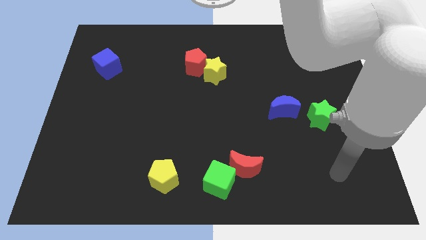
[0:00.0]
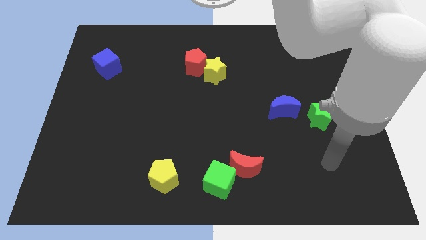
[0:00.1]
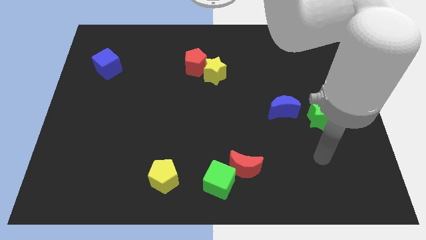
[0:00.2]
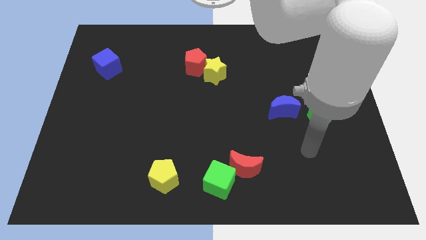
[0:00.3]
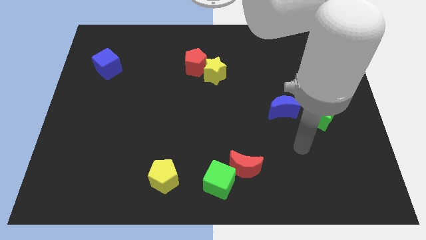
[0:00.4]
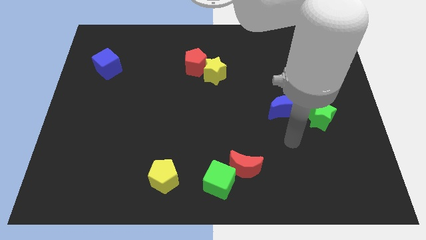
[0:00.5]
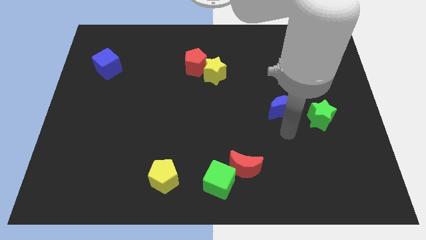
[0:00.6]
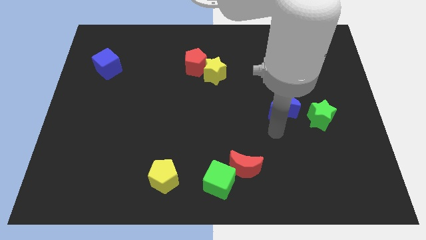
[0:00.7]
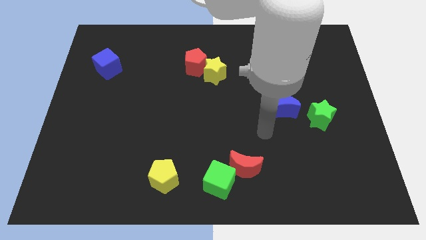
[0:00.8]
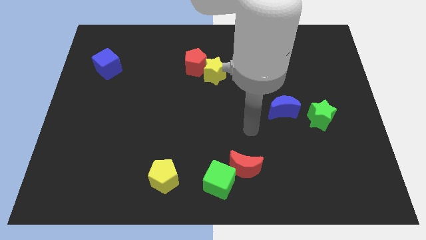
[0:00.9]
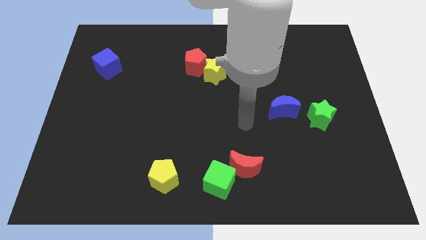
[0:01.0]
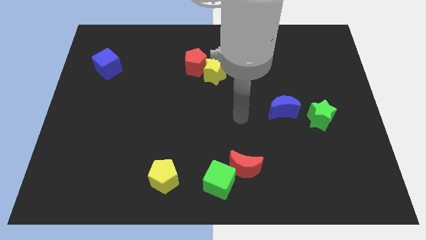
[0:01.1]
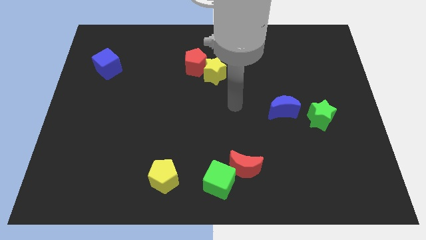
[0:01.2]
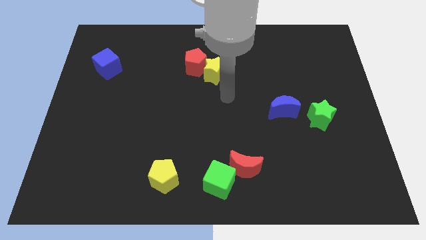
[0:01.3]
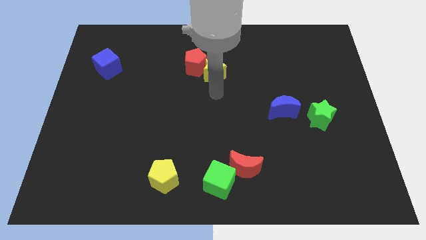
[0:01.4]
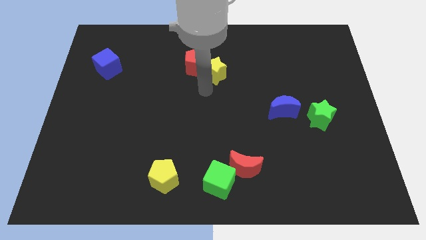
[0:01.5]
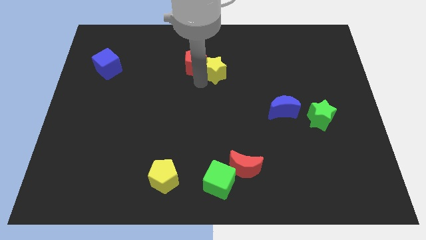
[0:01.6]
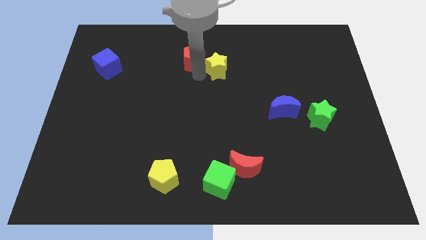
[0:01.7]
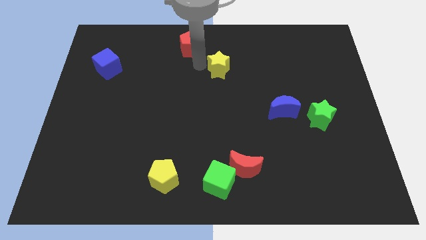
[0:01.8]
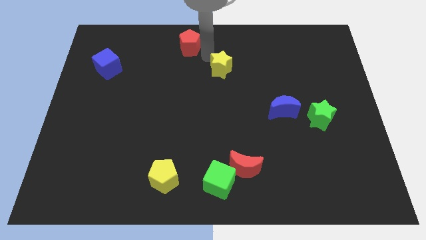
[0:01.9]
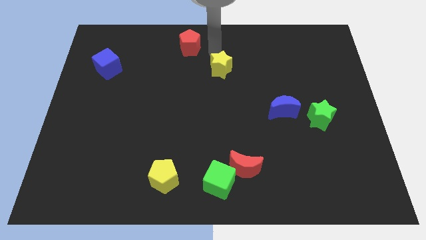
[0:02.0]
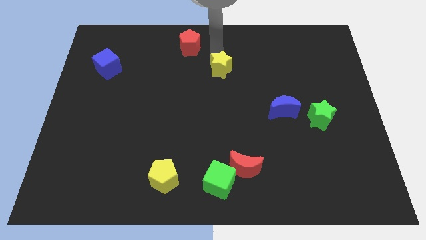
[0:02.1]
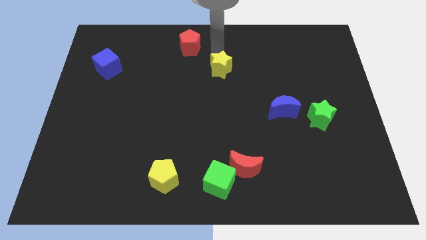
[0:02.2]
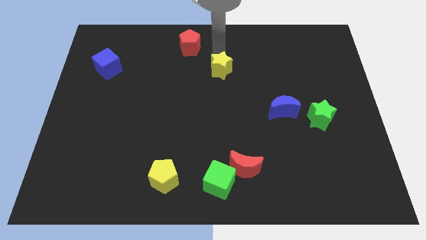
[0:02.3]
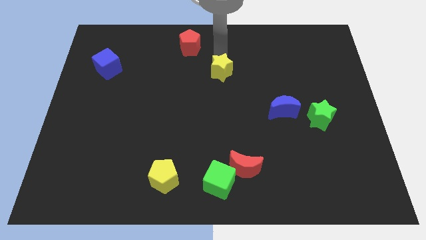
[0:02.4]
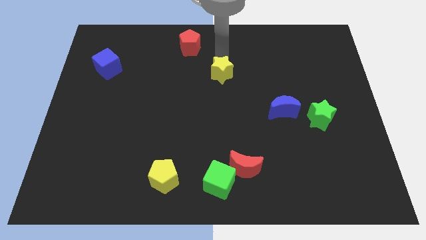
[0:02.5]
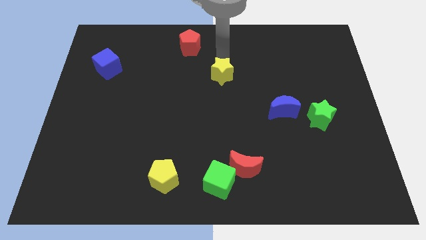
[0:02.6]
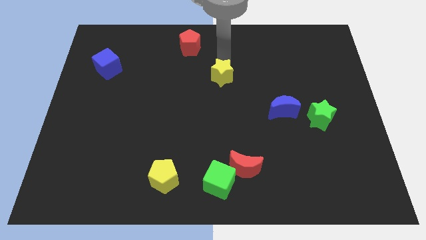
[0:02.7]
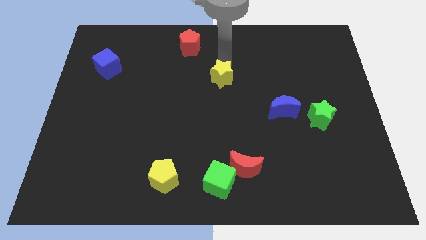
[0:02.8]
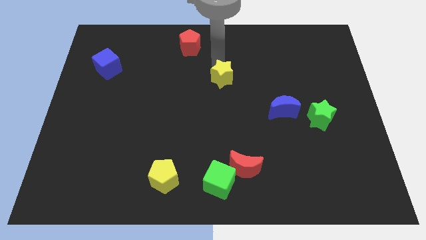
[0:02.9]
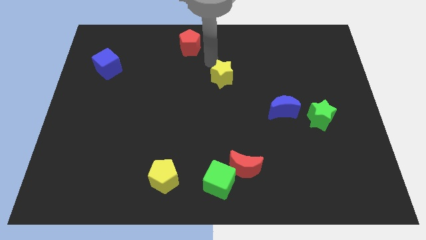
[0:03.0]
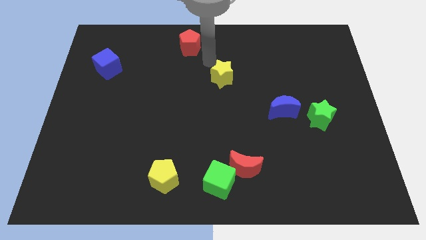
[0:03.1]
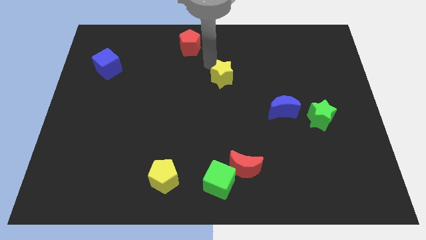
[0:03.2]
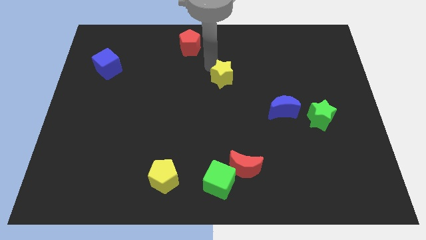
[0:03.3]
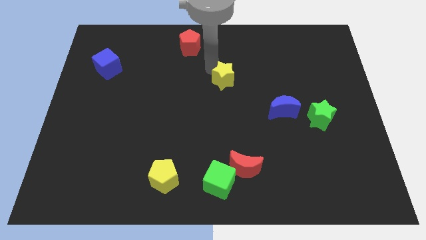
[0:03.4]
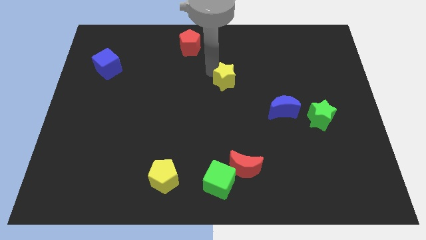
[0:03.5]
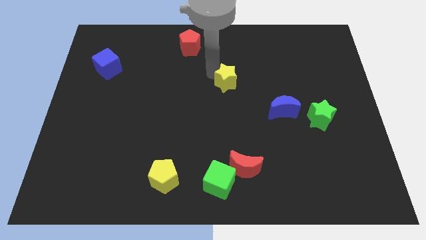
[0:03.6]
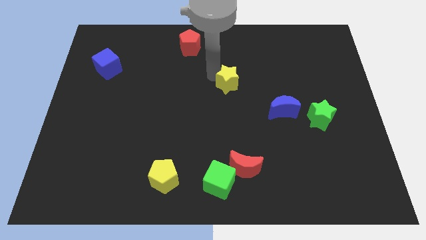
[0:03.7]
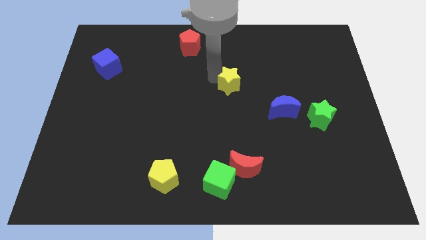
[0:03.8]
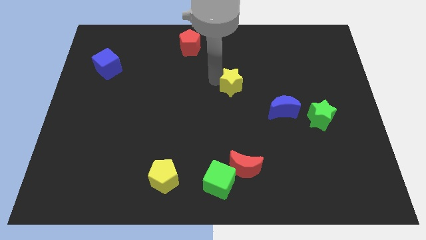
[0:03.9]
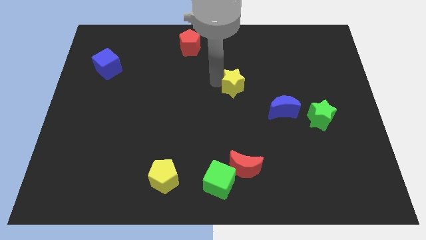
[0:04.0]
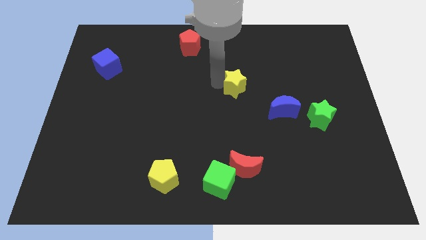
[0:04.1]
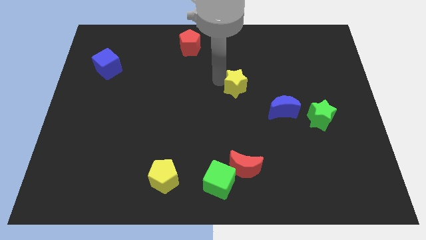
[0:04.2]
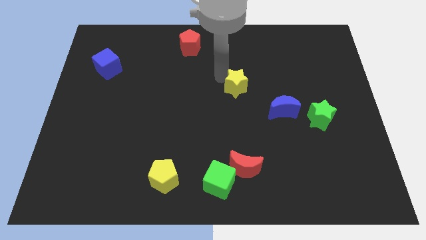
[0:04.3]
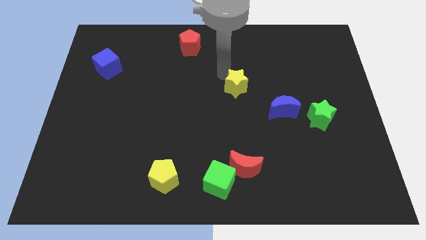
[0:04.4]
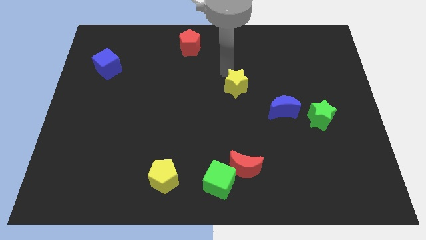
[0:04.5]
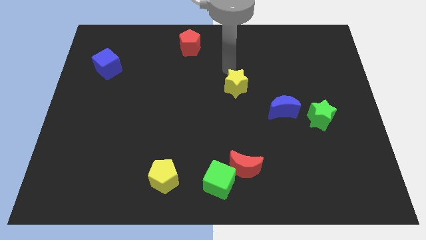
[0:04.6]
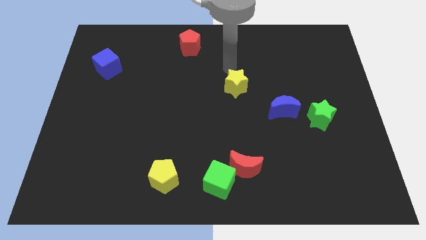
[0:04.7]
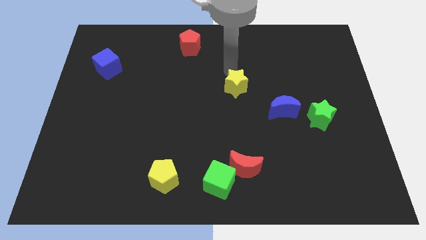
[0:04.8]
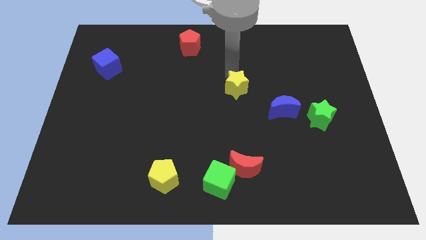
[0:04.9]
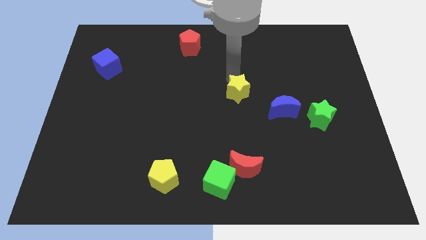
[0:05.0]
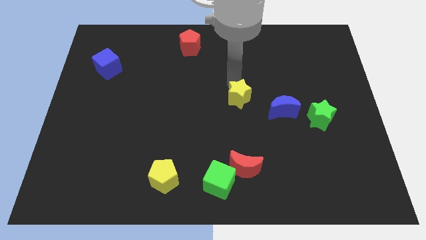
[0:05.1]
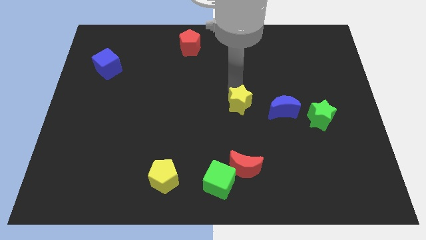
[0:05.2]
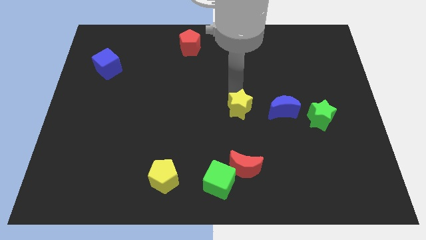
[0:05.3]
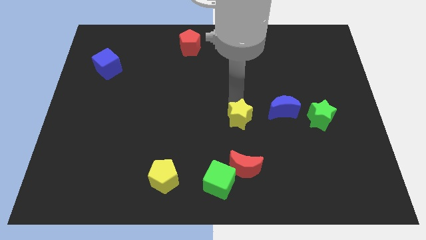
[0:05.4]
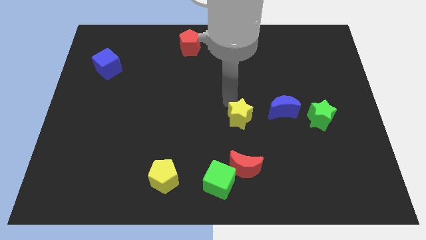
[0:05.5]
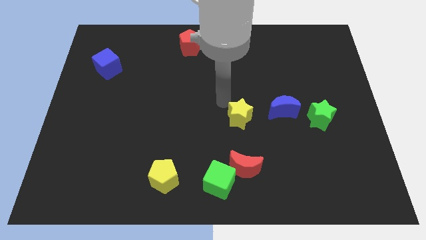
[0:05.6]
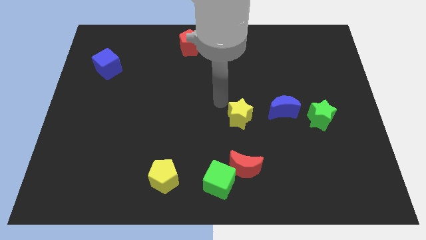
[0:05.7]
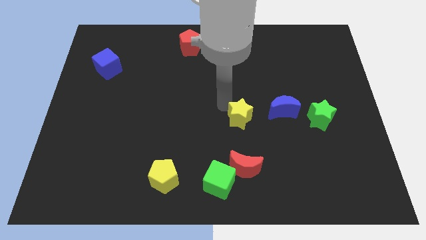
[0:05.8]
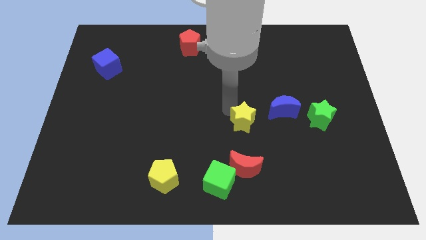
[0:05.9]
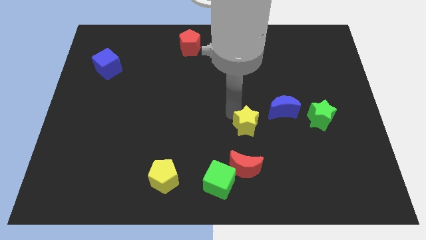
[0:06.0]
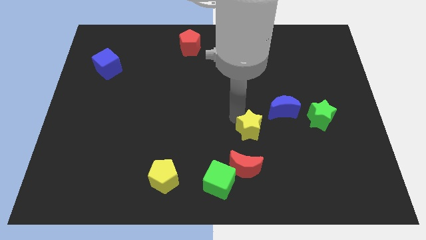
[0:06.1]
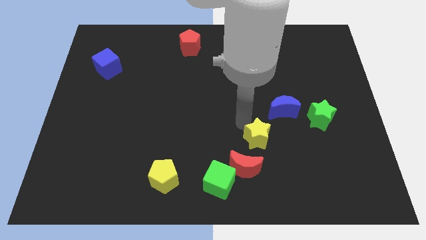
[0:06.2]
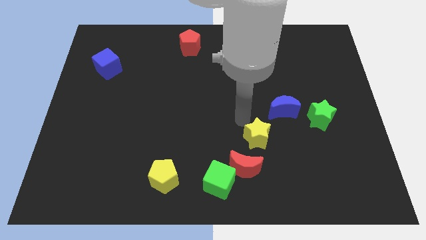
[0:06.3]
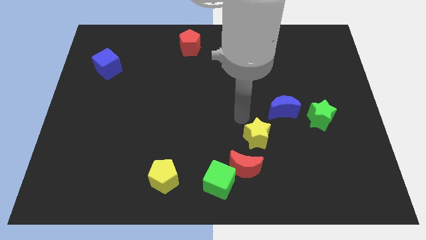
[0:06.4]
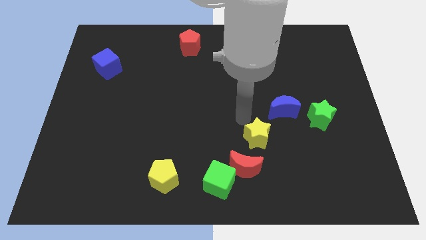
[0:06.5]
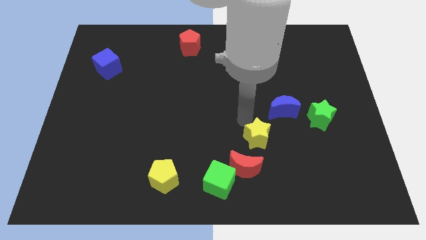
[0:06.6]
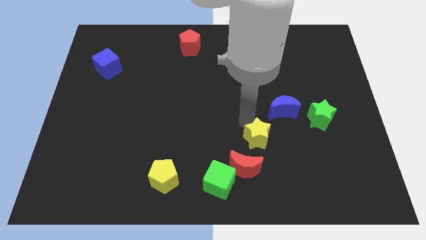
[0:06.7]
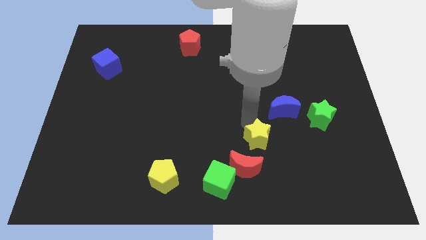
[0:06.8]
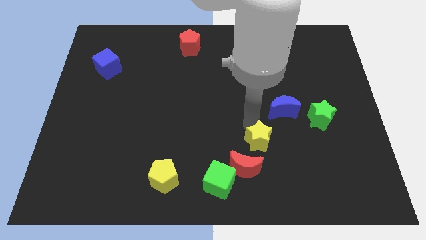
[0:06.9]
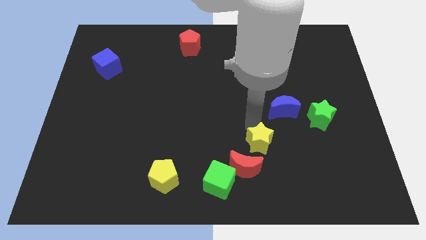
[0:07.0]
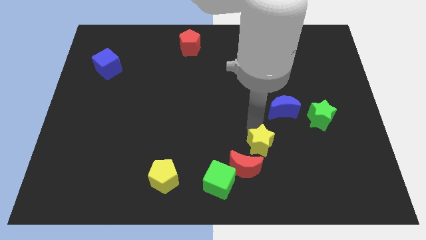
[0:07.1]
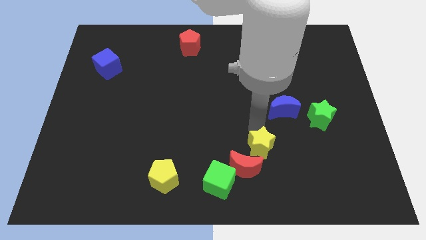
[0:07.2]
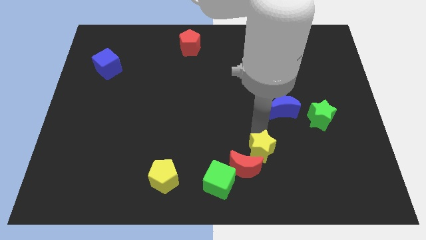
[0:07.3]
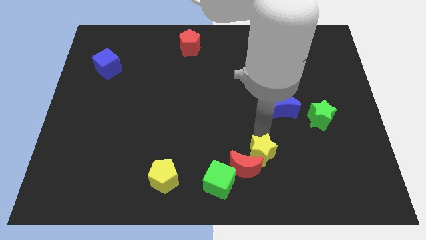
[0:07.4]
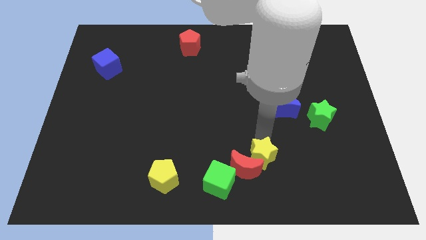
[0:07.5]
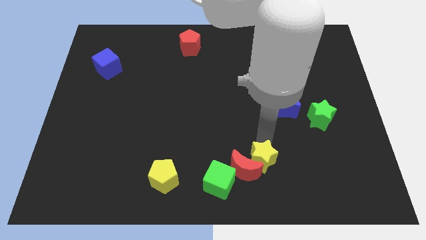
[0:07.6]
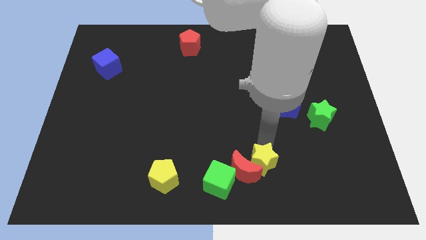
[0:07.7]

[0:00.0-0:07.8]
move the yellow star to the right of the green cube
